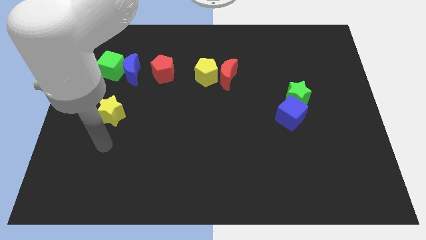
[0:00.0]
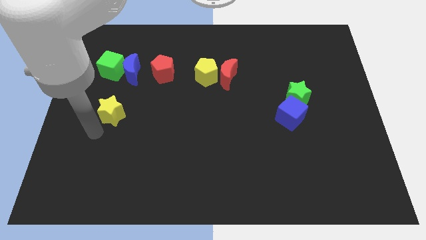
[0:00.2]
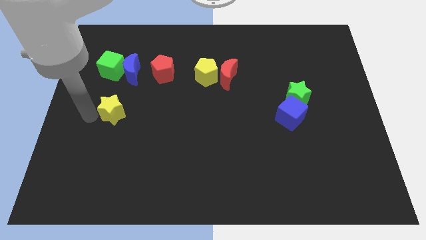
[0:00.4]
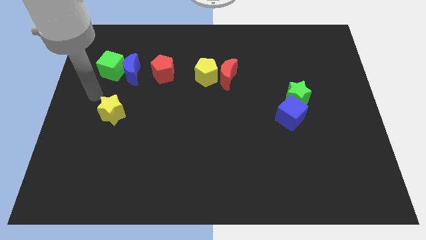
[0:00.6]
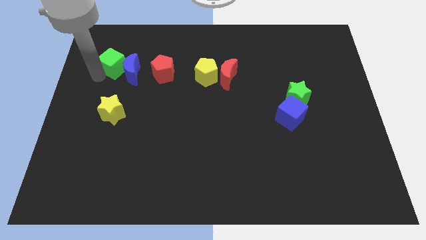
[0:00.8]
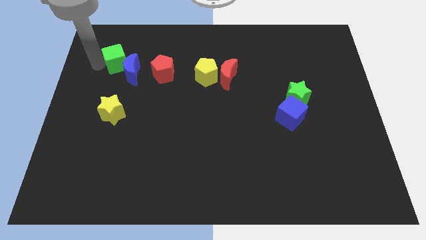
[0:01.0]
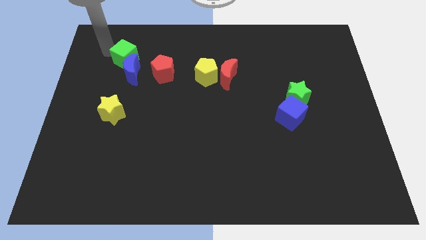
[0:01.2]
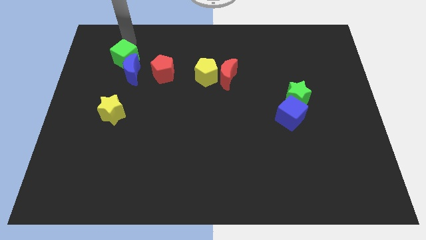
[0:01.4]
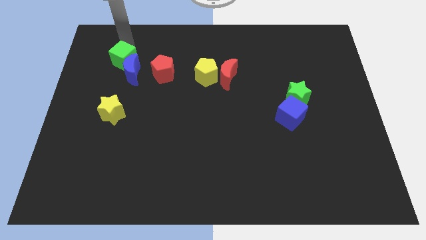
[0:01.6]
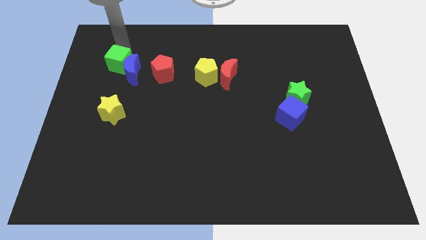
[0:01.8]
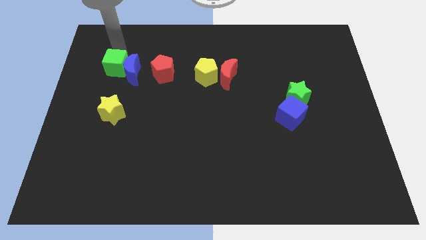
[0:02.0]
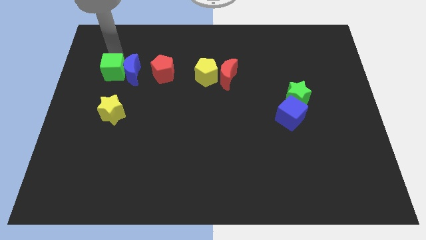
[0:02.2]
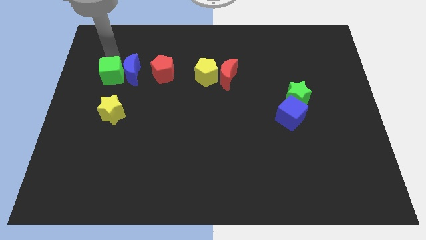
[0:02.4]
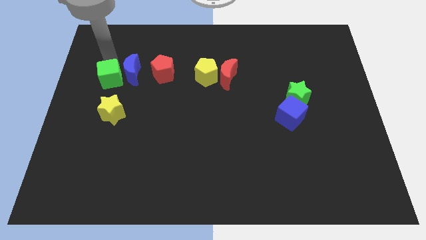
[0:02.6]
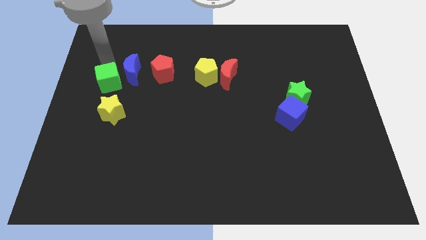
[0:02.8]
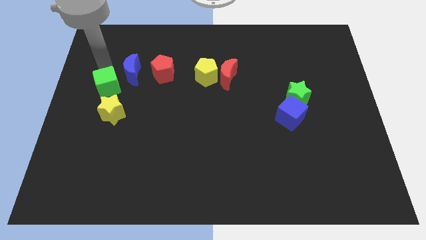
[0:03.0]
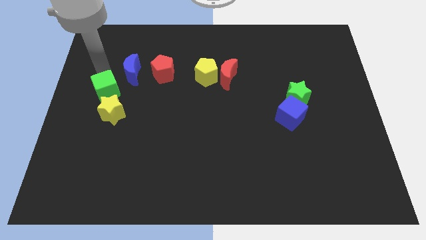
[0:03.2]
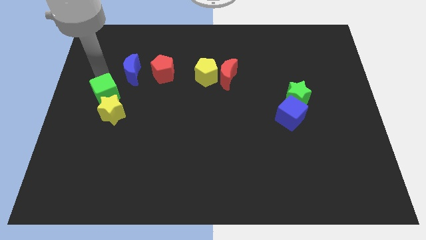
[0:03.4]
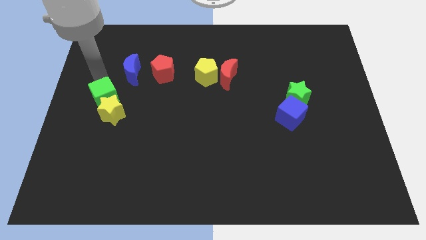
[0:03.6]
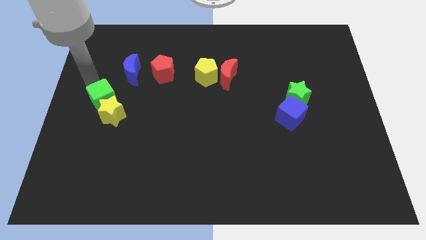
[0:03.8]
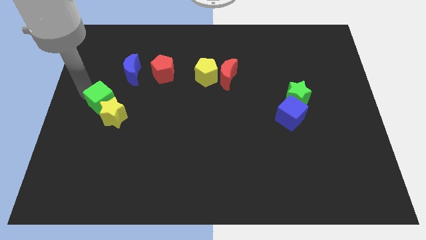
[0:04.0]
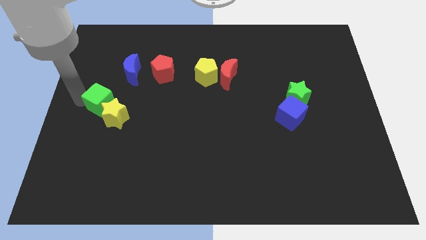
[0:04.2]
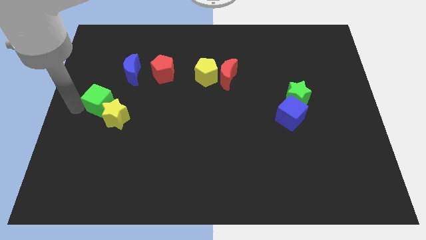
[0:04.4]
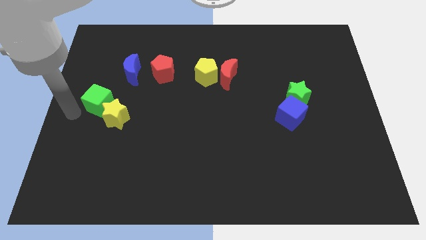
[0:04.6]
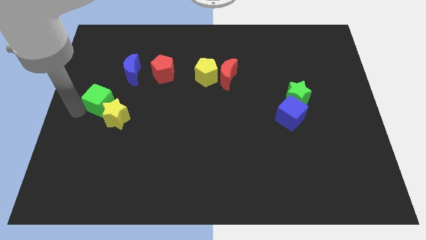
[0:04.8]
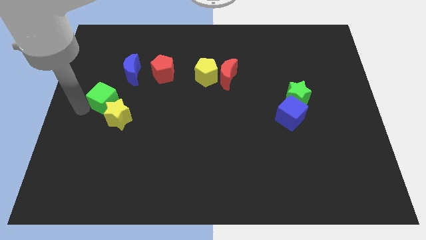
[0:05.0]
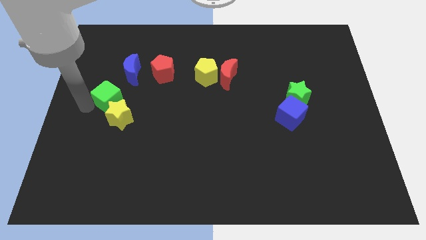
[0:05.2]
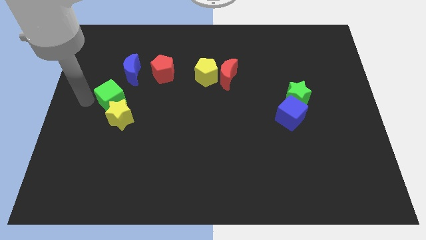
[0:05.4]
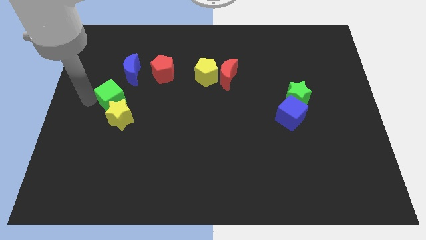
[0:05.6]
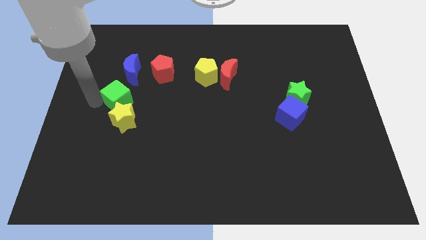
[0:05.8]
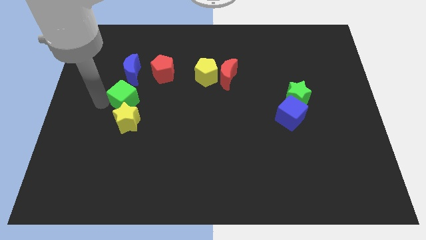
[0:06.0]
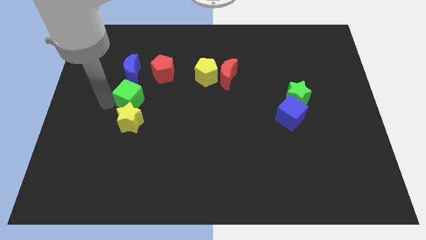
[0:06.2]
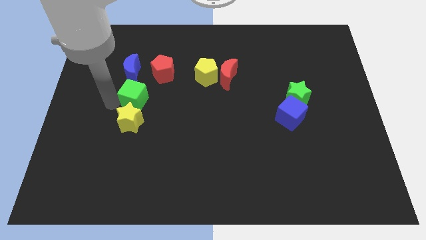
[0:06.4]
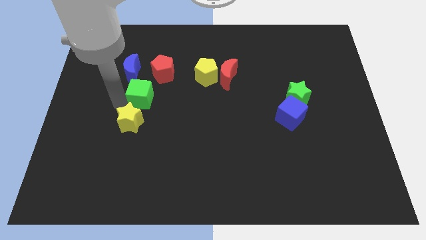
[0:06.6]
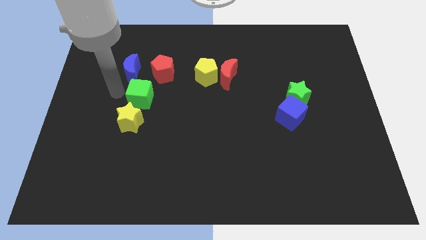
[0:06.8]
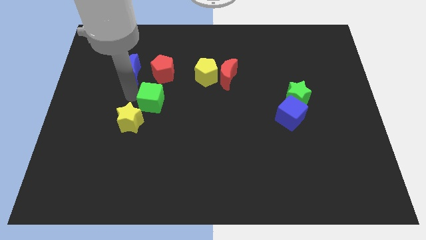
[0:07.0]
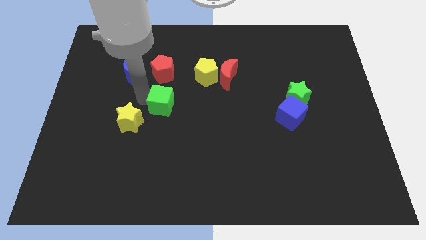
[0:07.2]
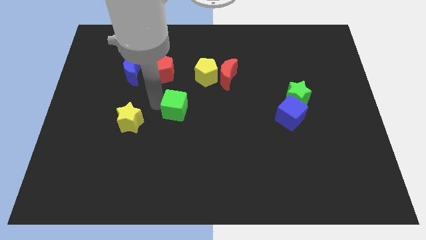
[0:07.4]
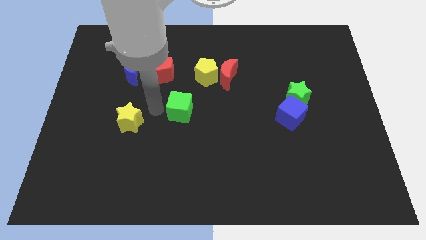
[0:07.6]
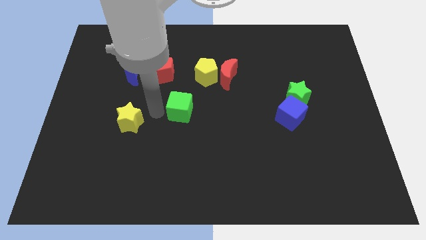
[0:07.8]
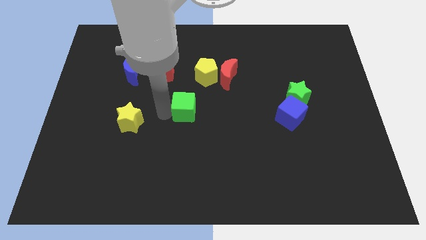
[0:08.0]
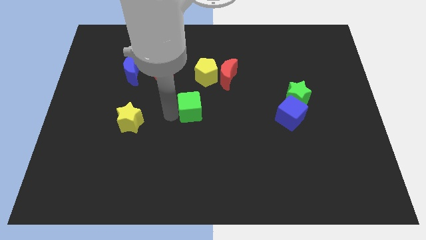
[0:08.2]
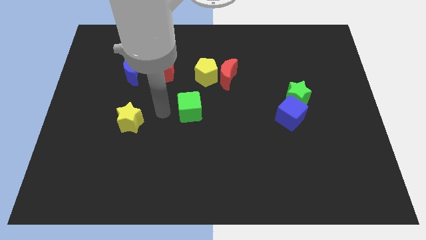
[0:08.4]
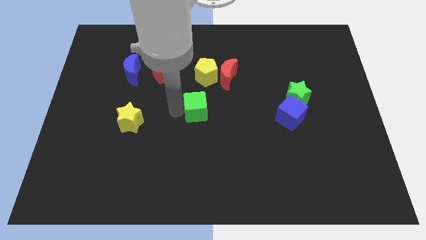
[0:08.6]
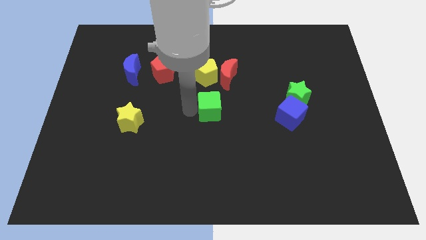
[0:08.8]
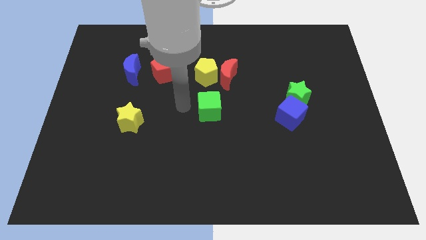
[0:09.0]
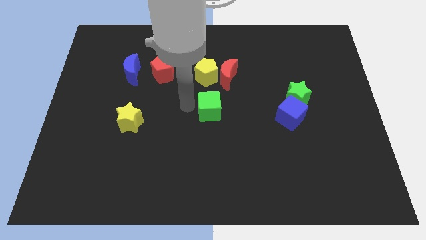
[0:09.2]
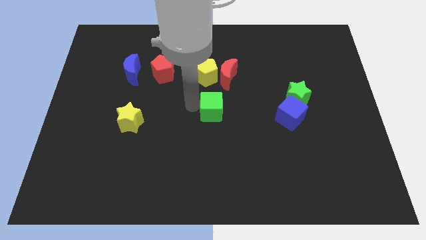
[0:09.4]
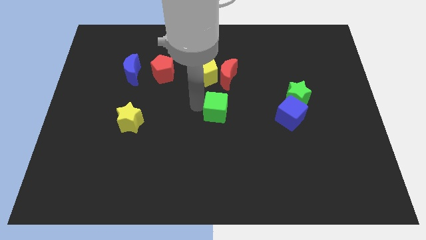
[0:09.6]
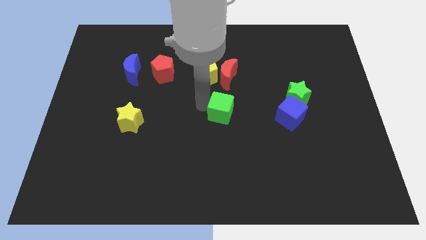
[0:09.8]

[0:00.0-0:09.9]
put the green cube left of the blue cube

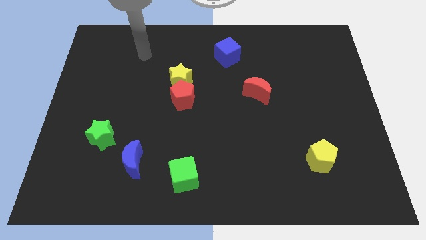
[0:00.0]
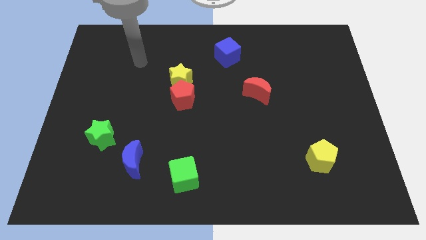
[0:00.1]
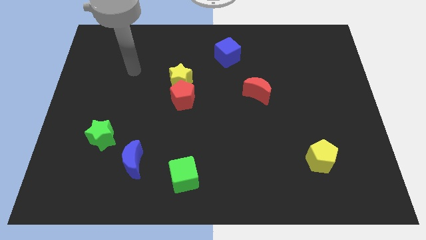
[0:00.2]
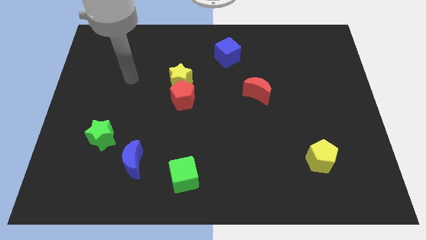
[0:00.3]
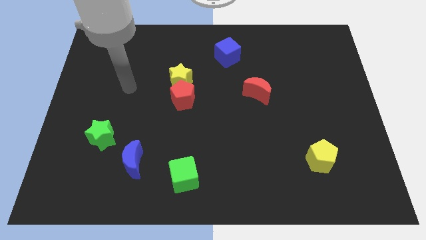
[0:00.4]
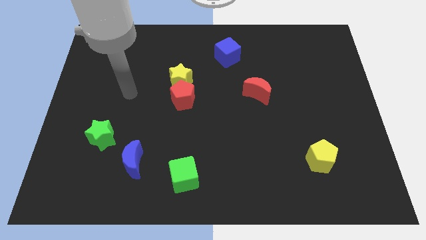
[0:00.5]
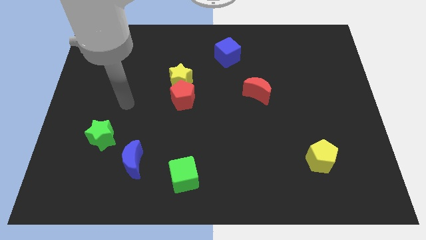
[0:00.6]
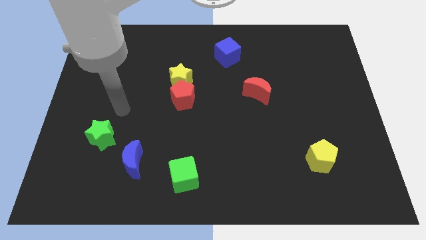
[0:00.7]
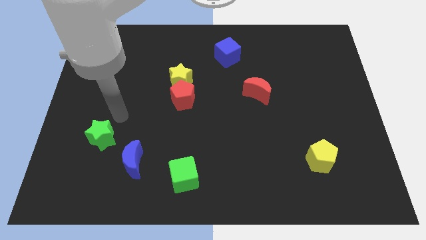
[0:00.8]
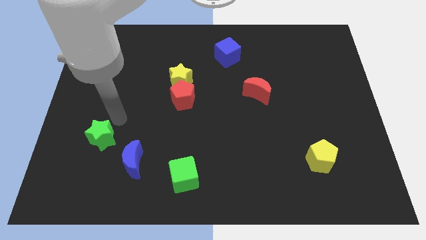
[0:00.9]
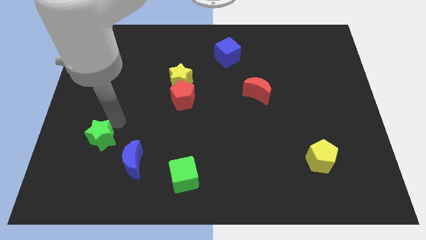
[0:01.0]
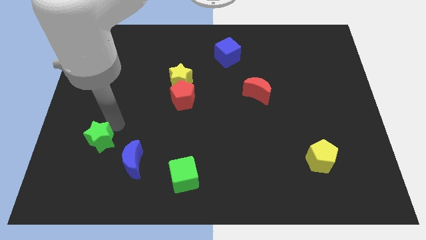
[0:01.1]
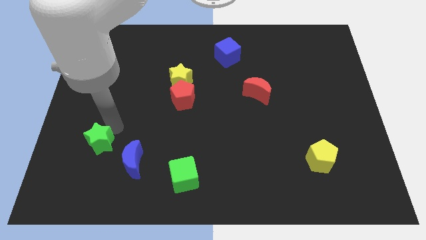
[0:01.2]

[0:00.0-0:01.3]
put the green star left of the blue moon

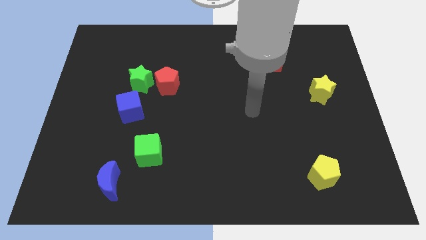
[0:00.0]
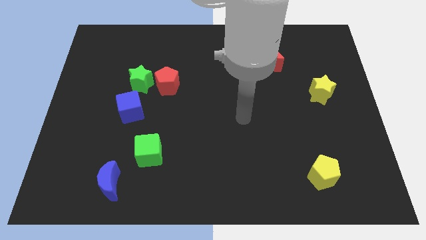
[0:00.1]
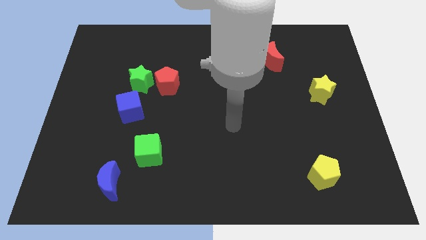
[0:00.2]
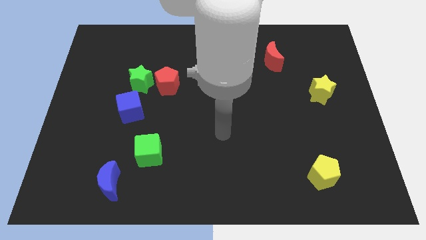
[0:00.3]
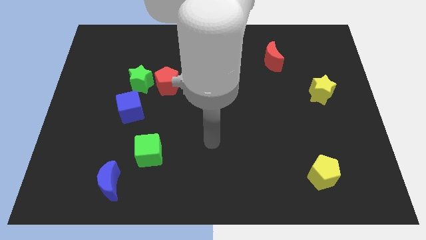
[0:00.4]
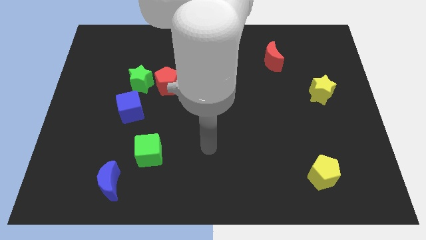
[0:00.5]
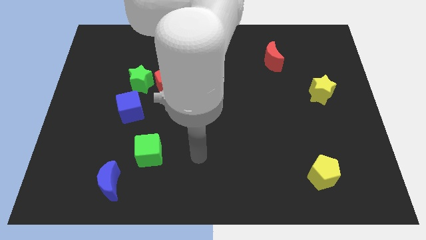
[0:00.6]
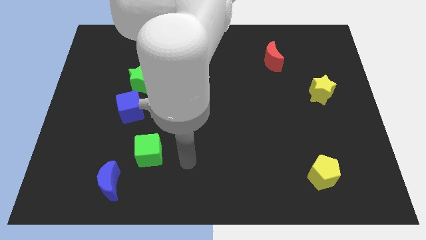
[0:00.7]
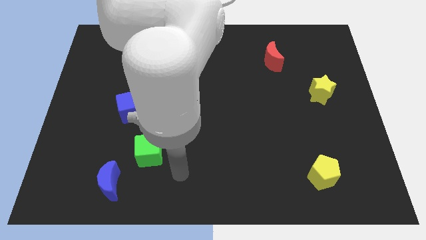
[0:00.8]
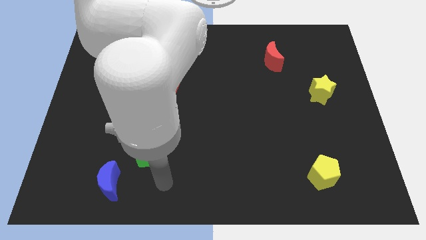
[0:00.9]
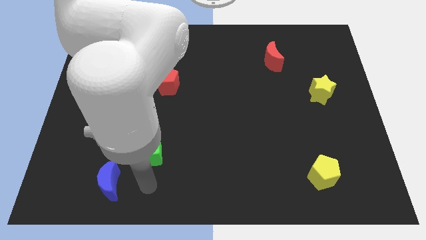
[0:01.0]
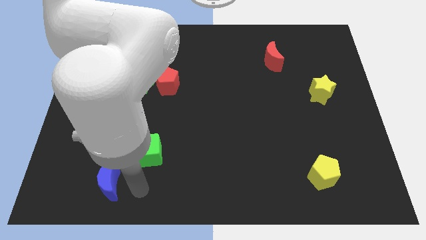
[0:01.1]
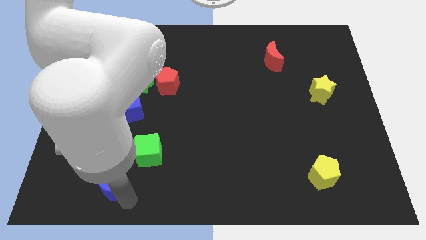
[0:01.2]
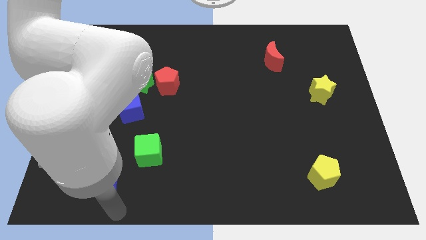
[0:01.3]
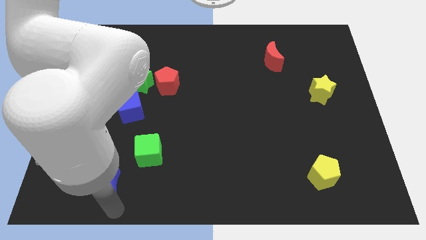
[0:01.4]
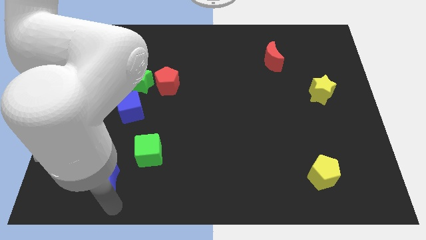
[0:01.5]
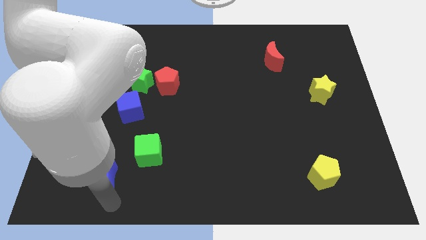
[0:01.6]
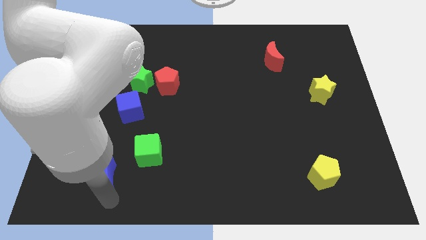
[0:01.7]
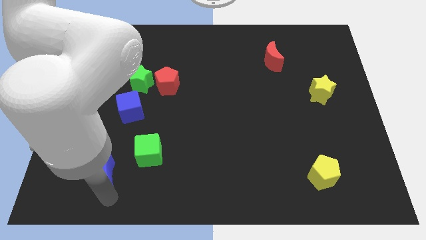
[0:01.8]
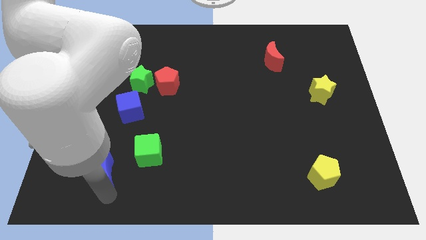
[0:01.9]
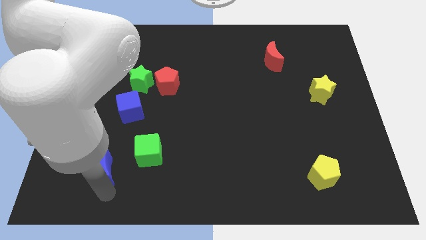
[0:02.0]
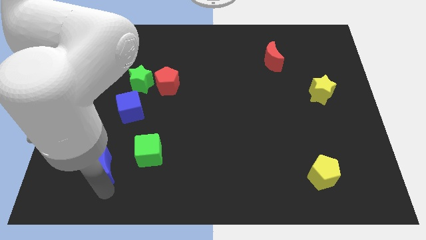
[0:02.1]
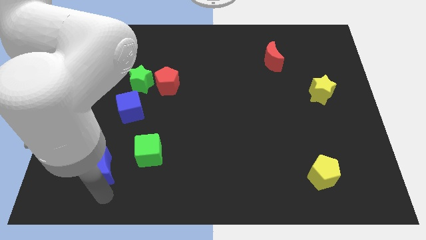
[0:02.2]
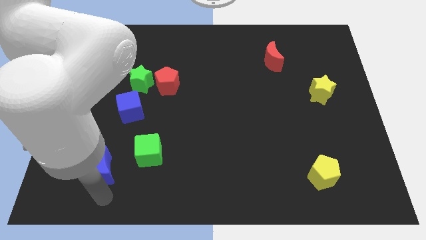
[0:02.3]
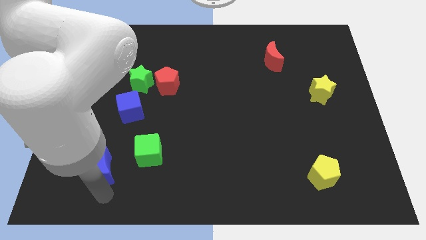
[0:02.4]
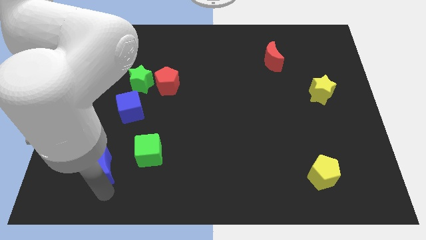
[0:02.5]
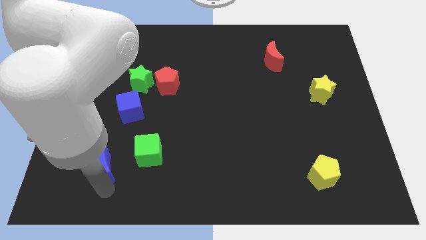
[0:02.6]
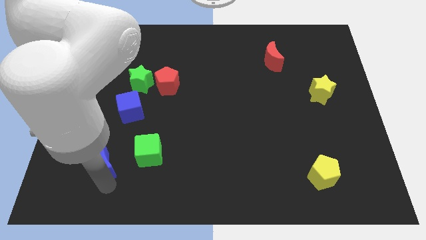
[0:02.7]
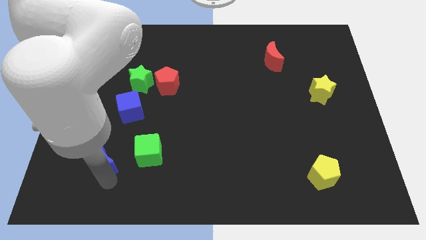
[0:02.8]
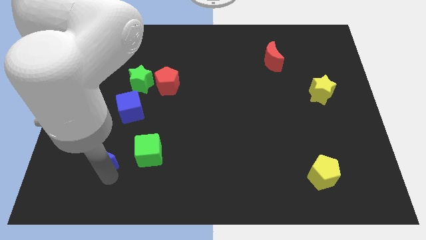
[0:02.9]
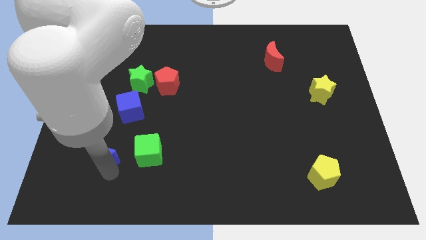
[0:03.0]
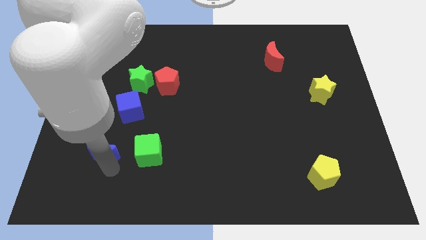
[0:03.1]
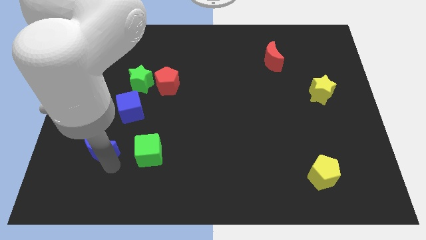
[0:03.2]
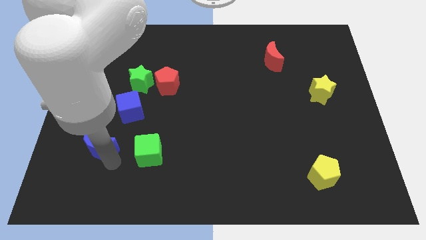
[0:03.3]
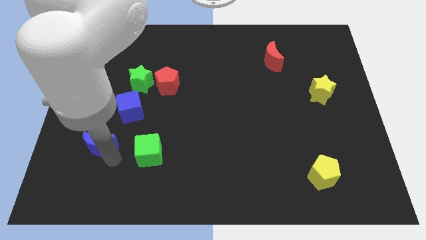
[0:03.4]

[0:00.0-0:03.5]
push the blue moon to the bottom left side of the blue cube
